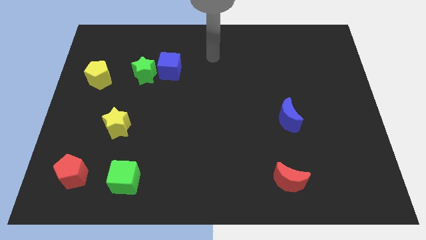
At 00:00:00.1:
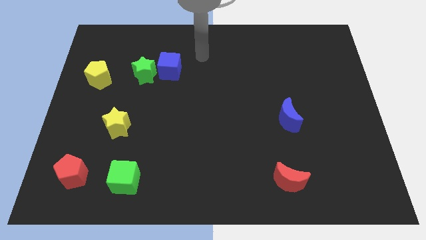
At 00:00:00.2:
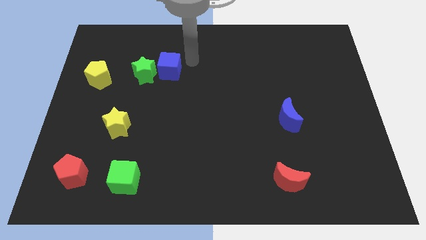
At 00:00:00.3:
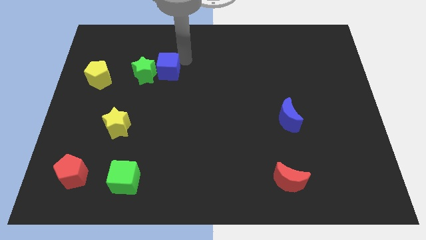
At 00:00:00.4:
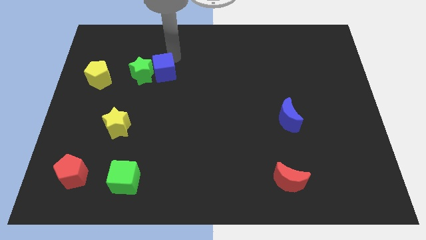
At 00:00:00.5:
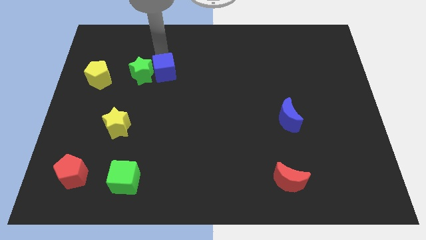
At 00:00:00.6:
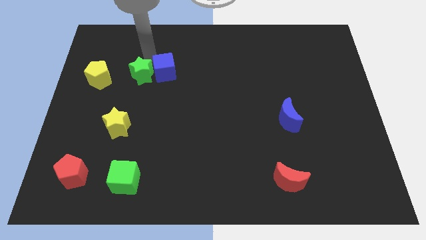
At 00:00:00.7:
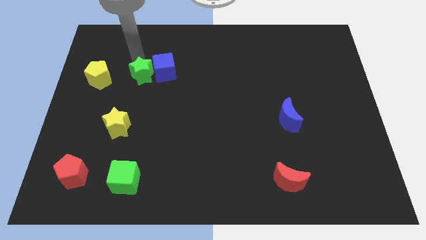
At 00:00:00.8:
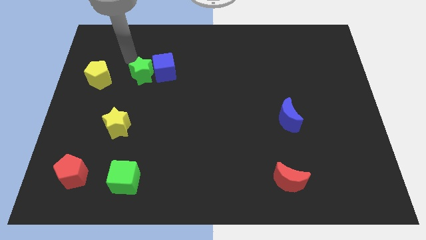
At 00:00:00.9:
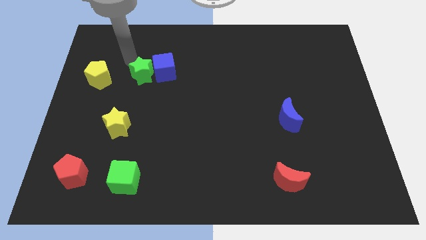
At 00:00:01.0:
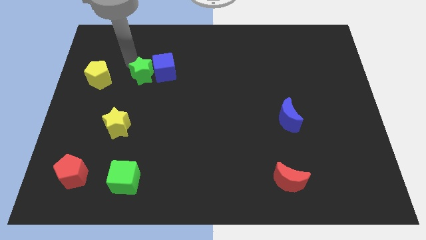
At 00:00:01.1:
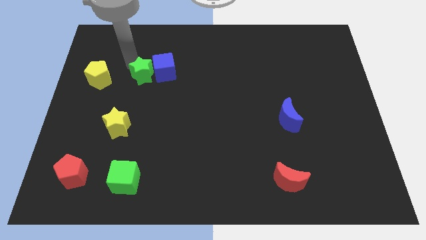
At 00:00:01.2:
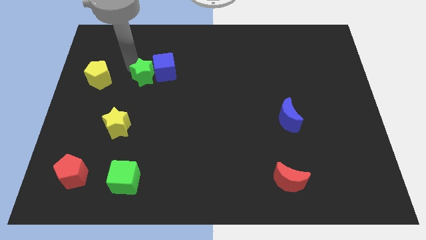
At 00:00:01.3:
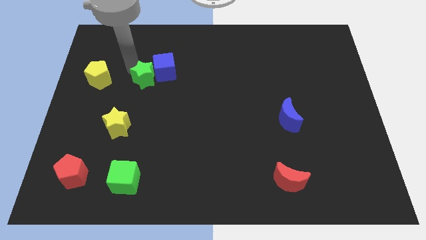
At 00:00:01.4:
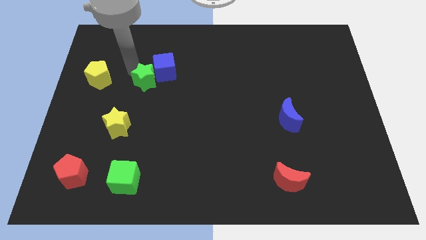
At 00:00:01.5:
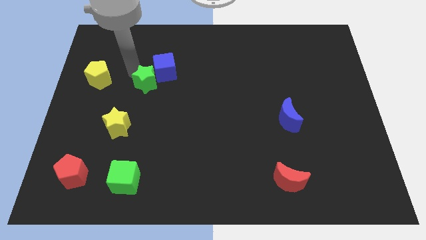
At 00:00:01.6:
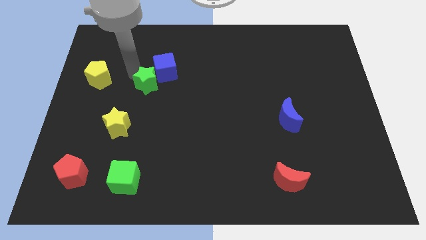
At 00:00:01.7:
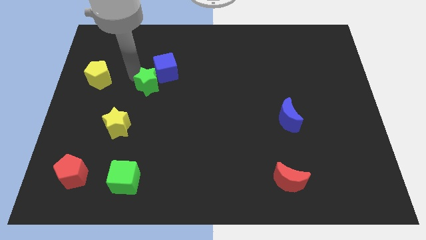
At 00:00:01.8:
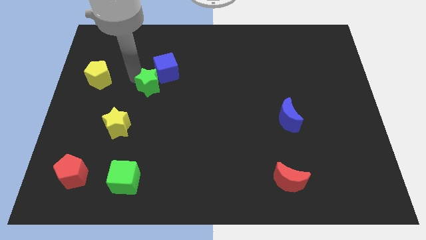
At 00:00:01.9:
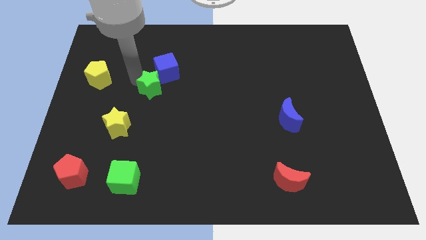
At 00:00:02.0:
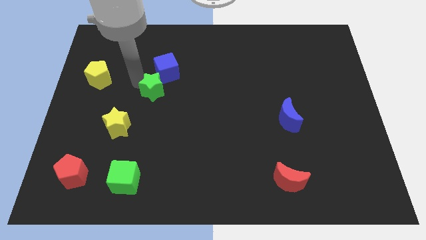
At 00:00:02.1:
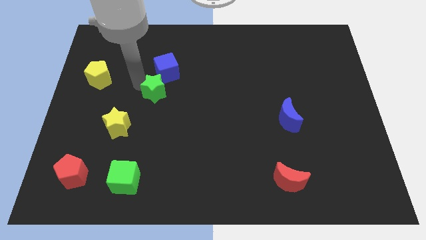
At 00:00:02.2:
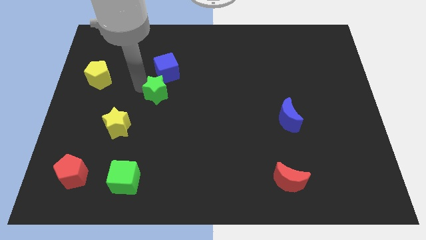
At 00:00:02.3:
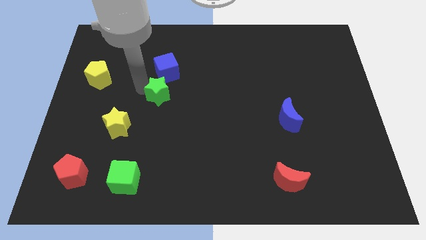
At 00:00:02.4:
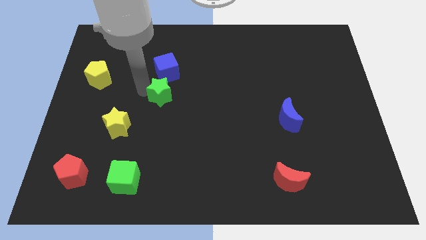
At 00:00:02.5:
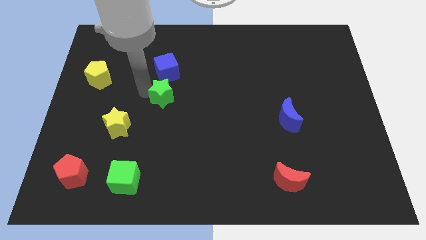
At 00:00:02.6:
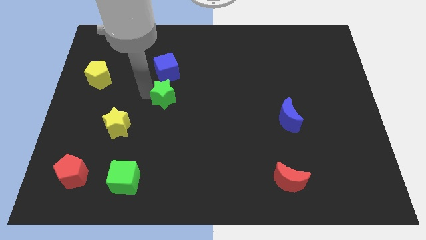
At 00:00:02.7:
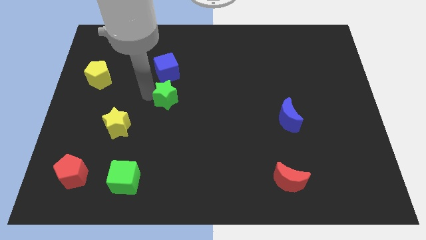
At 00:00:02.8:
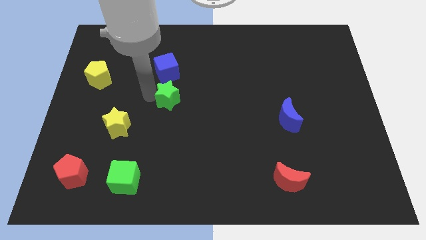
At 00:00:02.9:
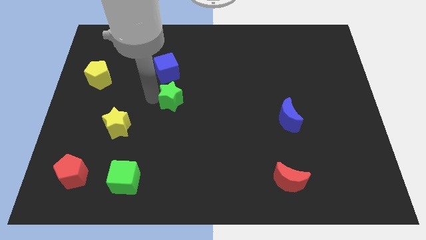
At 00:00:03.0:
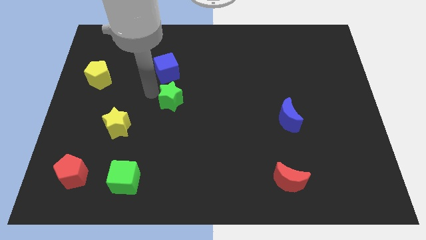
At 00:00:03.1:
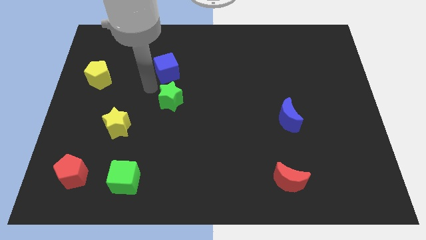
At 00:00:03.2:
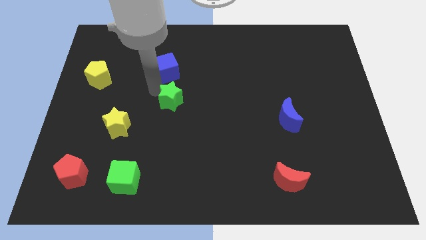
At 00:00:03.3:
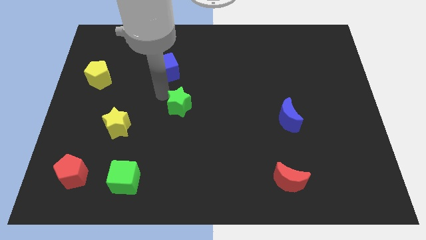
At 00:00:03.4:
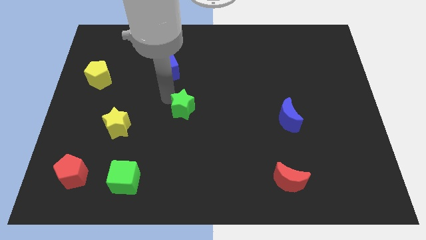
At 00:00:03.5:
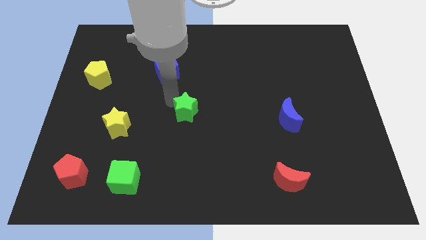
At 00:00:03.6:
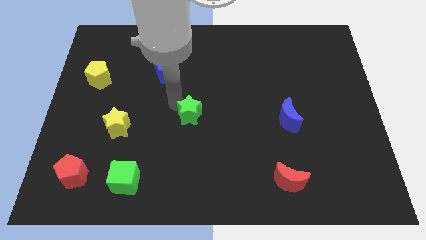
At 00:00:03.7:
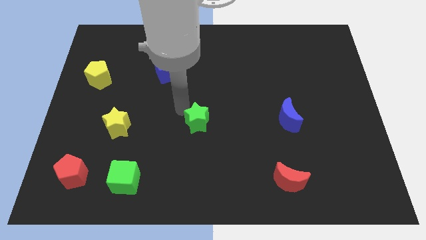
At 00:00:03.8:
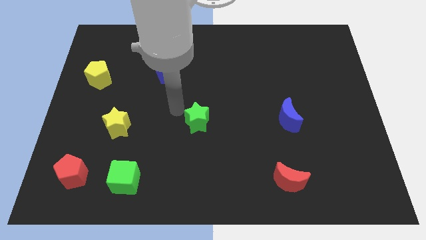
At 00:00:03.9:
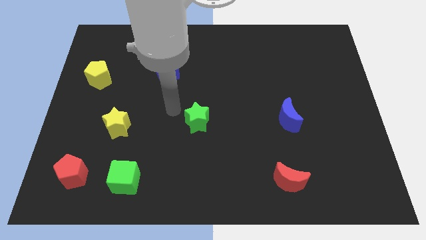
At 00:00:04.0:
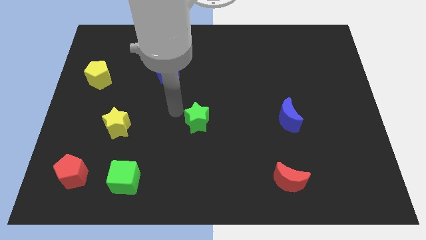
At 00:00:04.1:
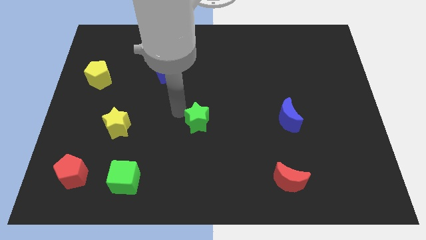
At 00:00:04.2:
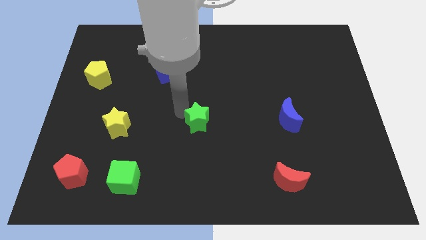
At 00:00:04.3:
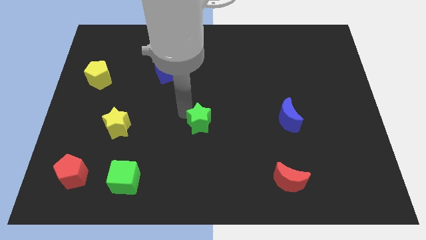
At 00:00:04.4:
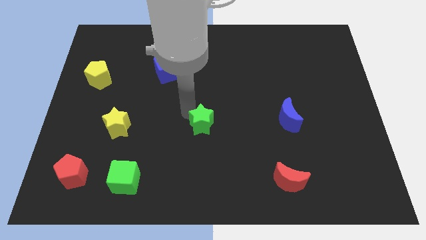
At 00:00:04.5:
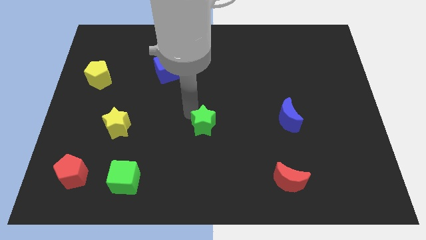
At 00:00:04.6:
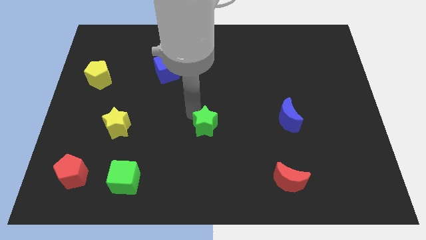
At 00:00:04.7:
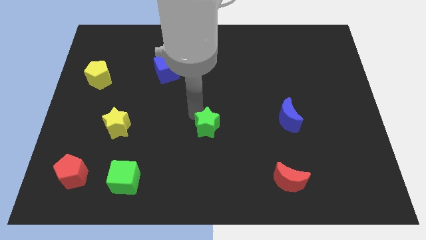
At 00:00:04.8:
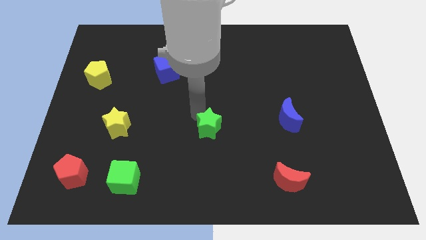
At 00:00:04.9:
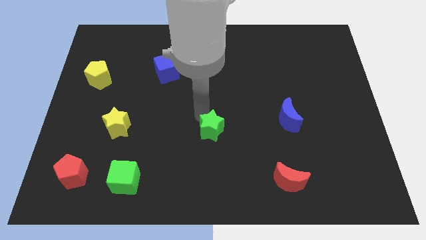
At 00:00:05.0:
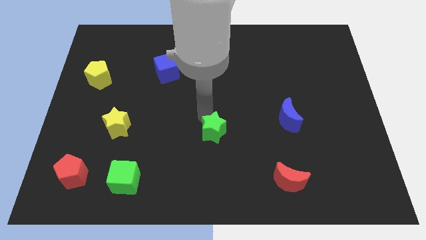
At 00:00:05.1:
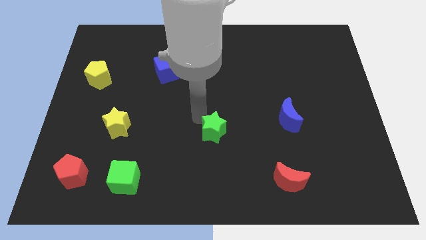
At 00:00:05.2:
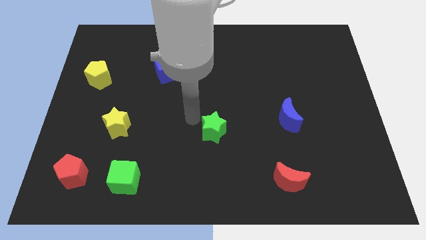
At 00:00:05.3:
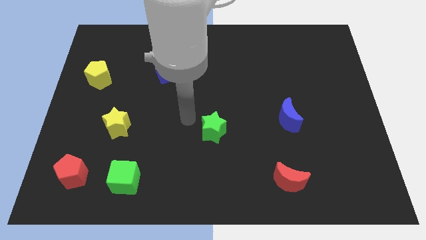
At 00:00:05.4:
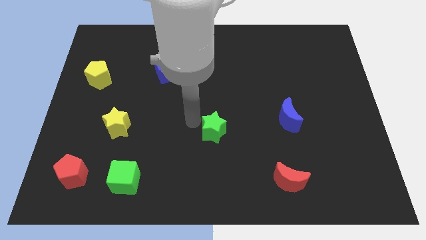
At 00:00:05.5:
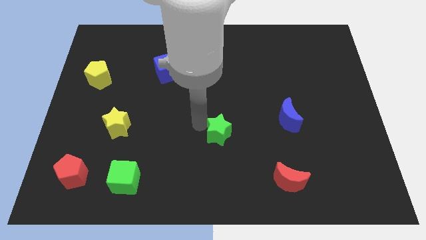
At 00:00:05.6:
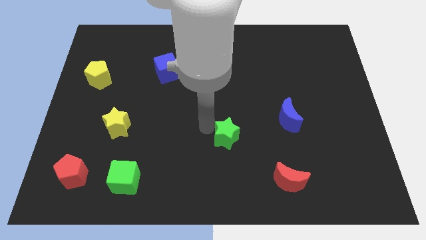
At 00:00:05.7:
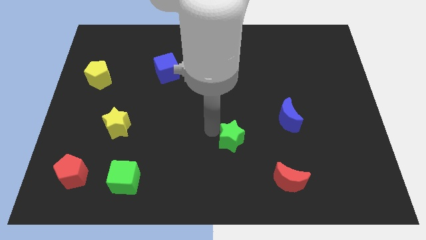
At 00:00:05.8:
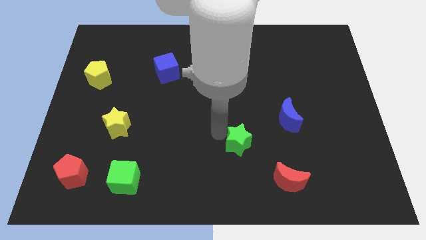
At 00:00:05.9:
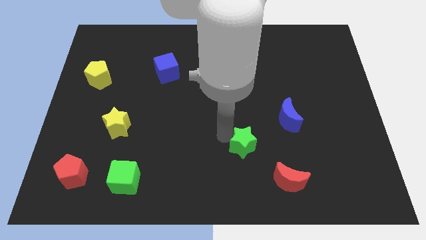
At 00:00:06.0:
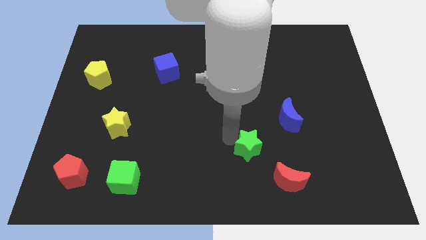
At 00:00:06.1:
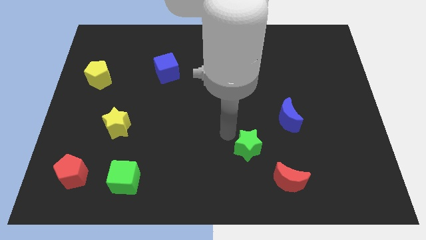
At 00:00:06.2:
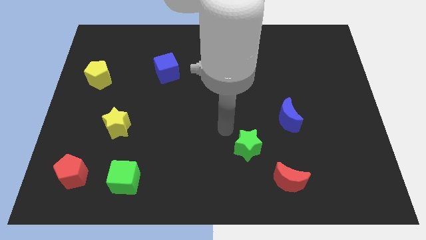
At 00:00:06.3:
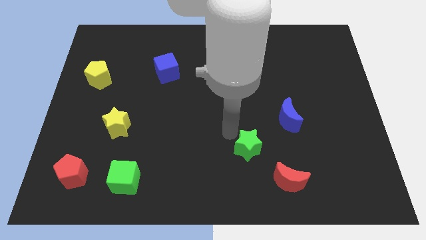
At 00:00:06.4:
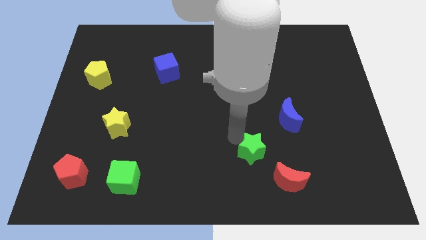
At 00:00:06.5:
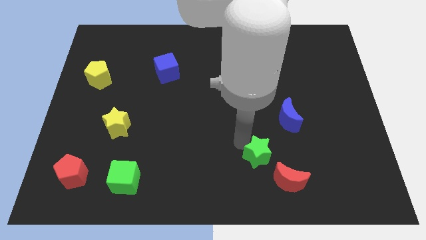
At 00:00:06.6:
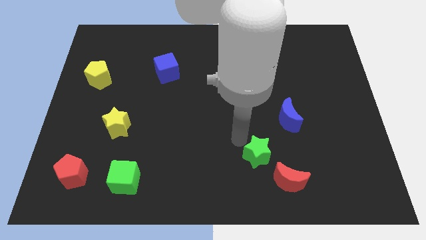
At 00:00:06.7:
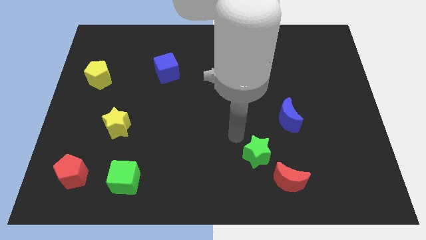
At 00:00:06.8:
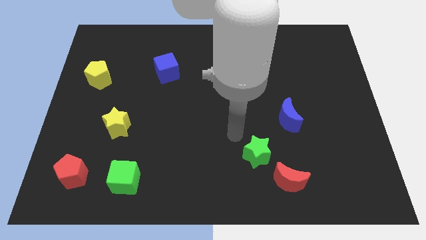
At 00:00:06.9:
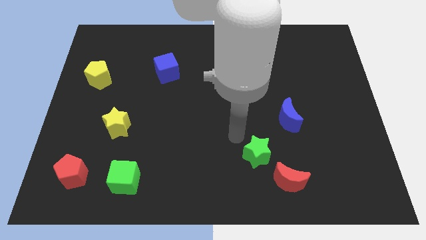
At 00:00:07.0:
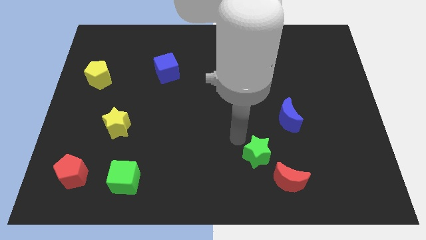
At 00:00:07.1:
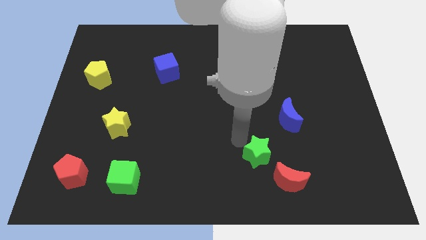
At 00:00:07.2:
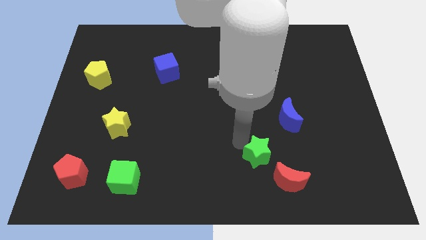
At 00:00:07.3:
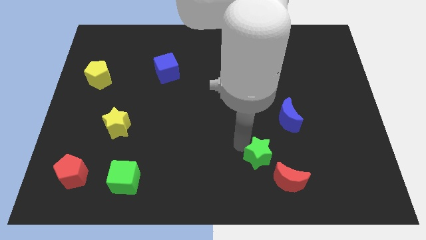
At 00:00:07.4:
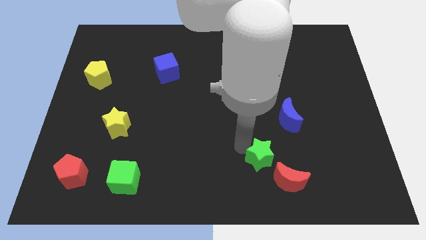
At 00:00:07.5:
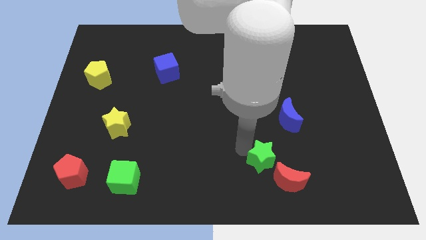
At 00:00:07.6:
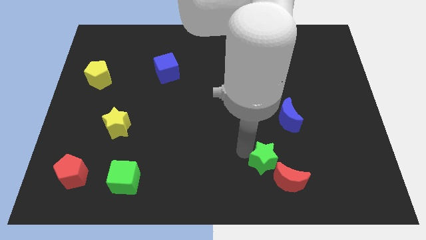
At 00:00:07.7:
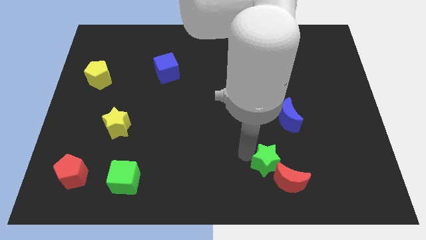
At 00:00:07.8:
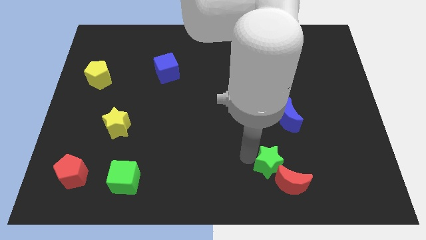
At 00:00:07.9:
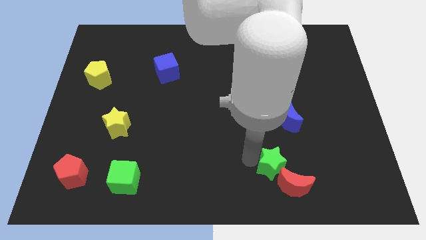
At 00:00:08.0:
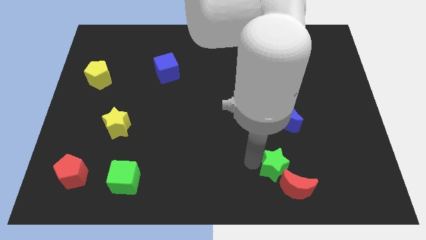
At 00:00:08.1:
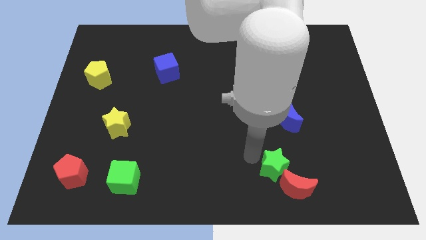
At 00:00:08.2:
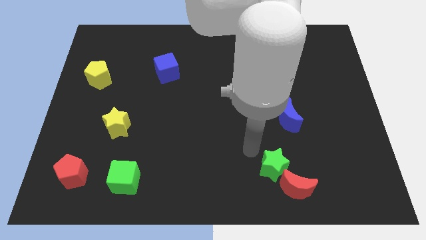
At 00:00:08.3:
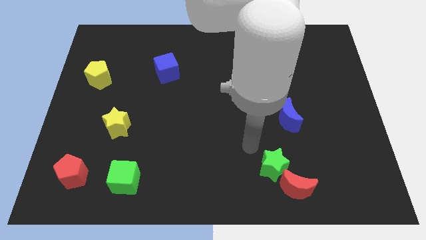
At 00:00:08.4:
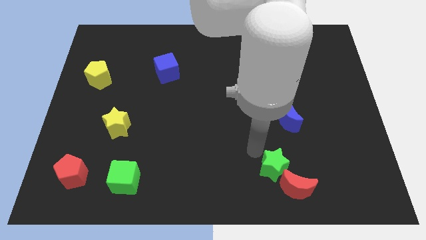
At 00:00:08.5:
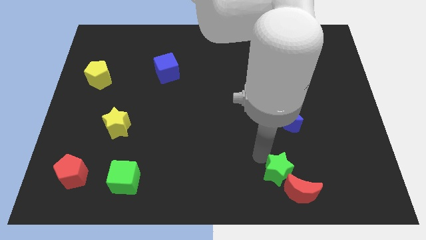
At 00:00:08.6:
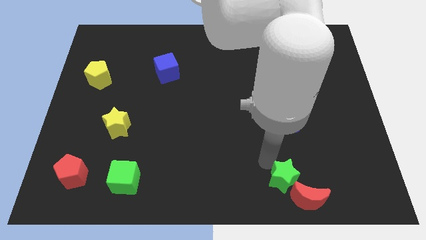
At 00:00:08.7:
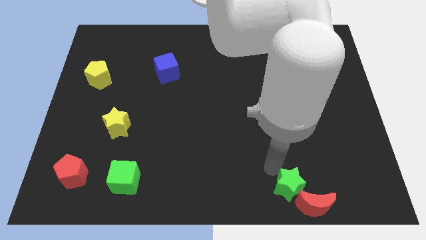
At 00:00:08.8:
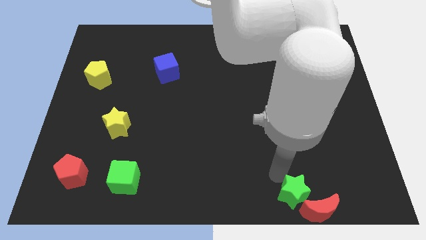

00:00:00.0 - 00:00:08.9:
slide the green star to the red moon
